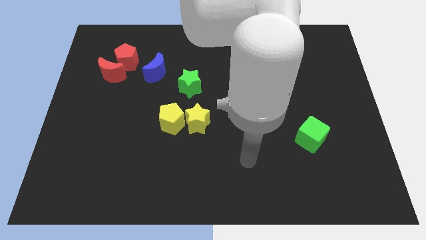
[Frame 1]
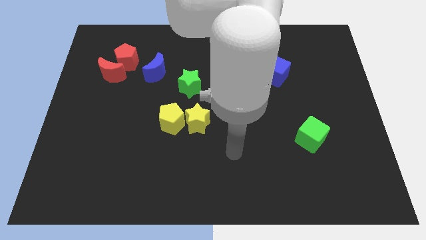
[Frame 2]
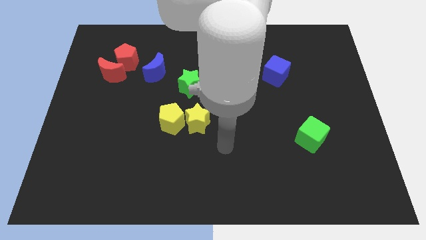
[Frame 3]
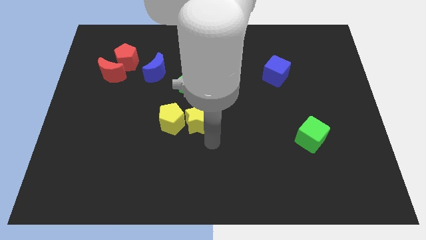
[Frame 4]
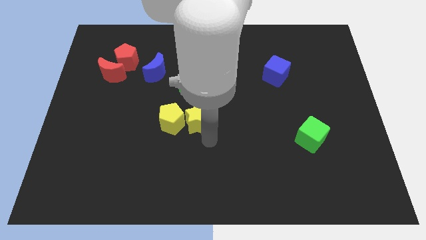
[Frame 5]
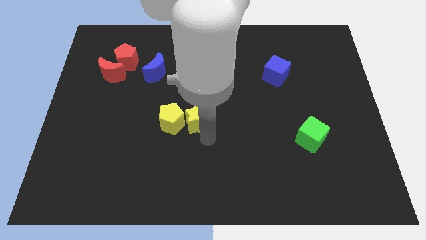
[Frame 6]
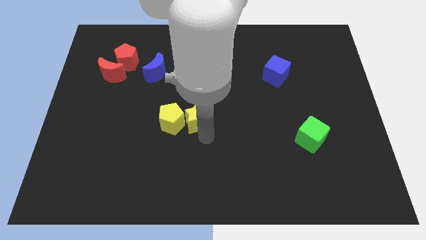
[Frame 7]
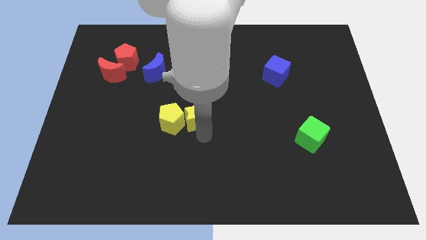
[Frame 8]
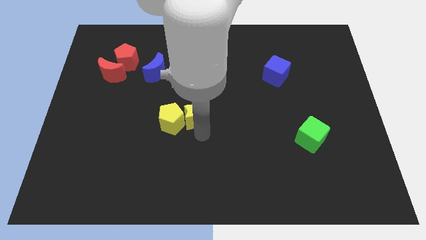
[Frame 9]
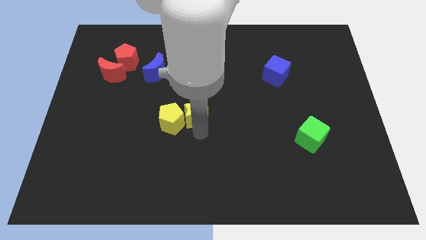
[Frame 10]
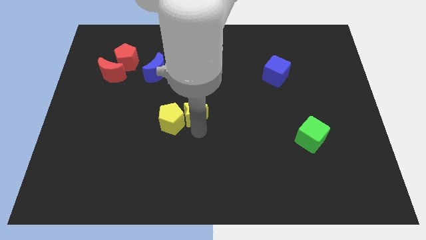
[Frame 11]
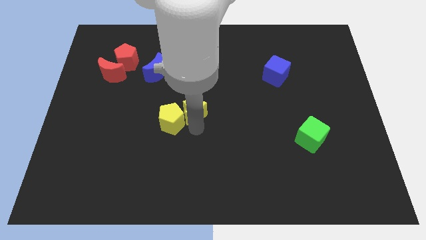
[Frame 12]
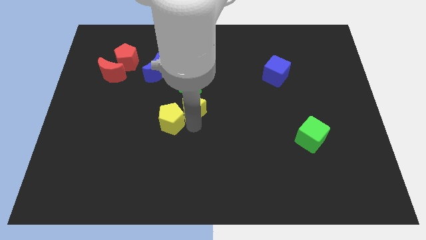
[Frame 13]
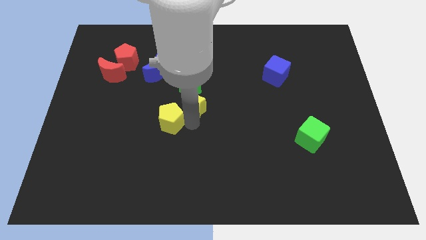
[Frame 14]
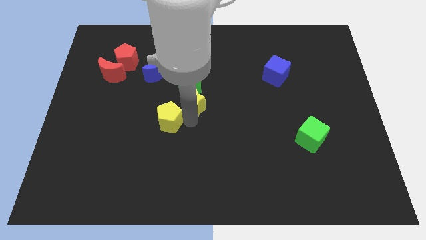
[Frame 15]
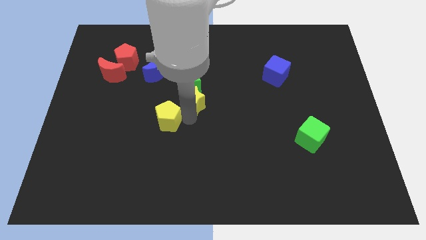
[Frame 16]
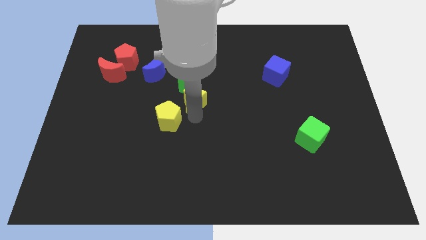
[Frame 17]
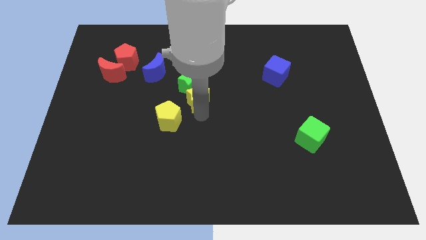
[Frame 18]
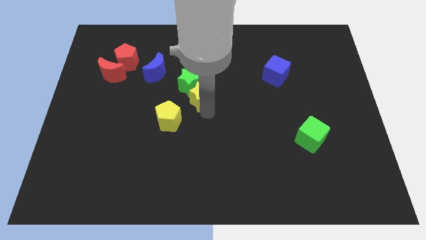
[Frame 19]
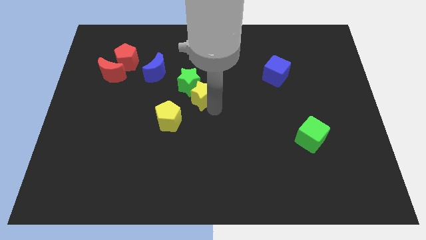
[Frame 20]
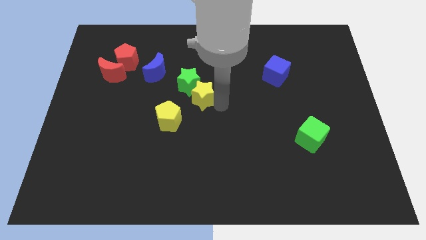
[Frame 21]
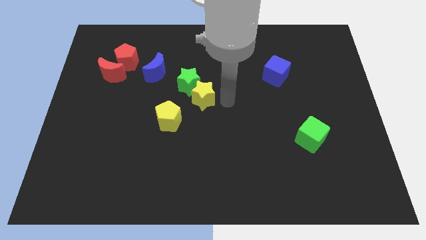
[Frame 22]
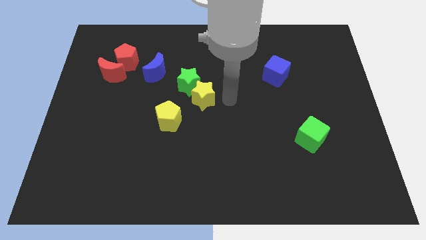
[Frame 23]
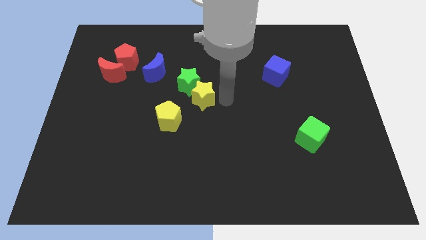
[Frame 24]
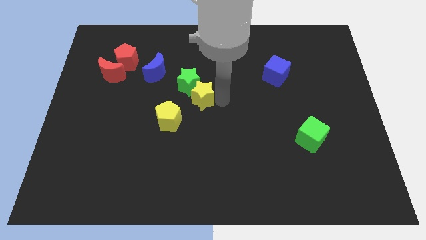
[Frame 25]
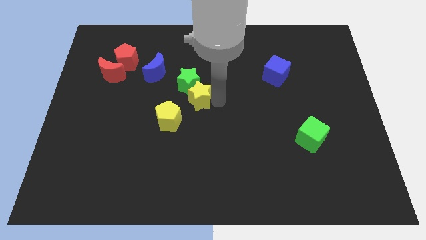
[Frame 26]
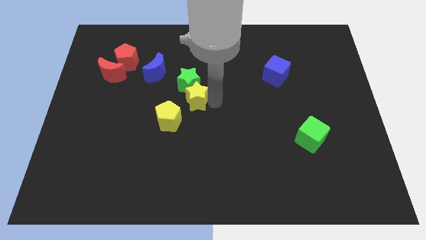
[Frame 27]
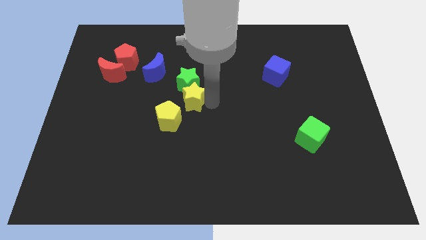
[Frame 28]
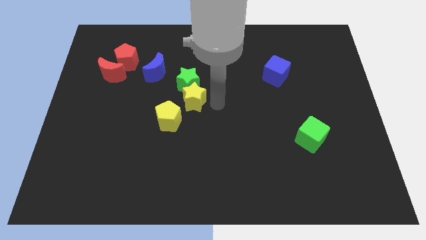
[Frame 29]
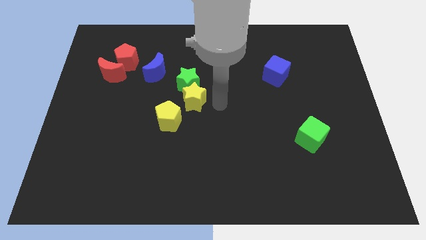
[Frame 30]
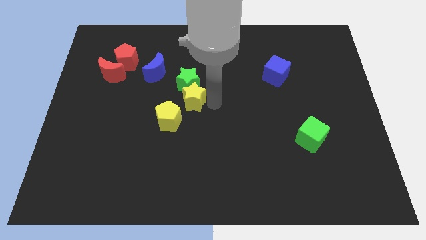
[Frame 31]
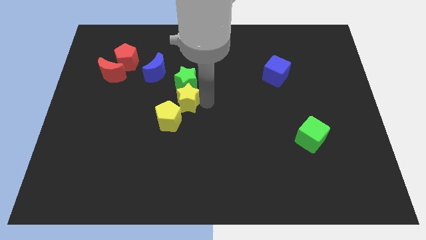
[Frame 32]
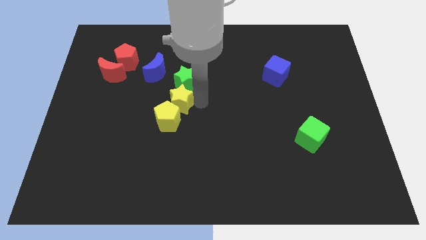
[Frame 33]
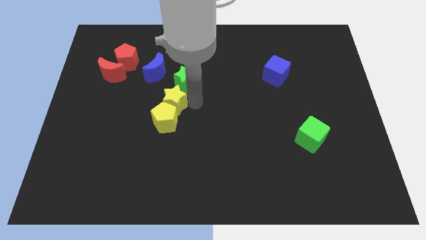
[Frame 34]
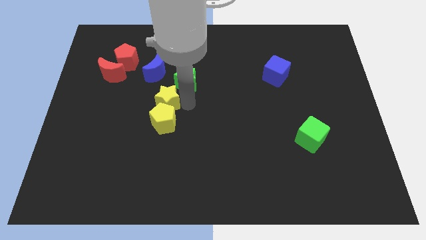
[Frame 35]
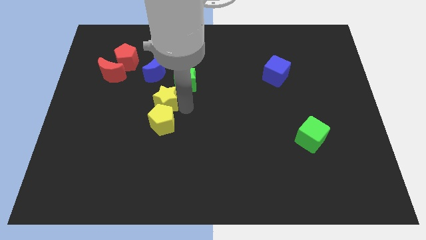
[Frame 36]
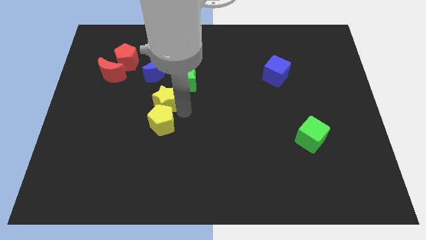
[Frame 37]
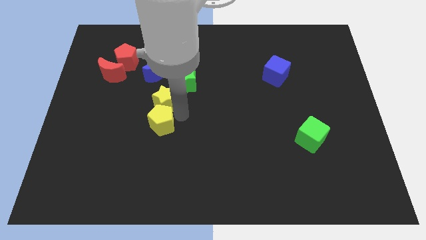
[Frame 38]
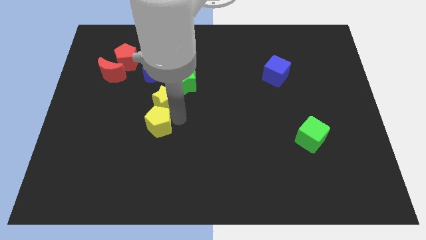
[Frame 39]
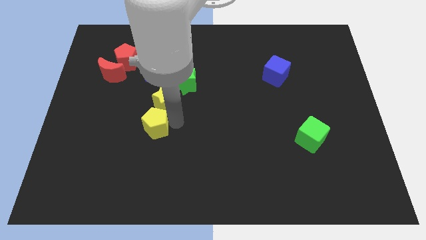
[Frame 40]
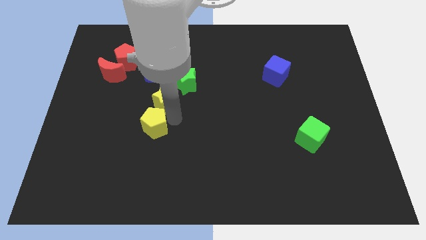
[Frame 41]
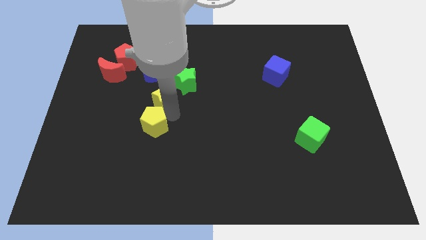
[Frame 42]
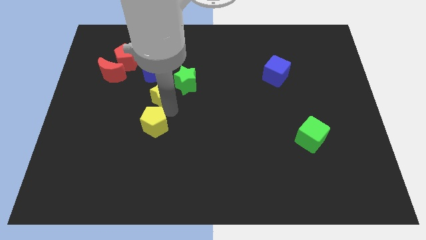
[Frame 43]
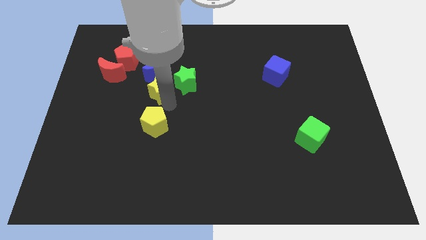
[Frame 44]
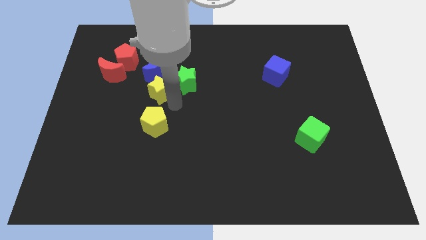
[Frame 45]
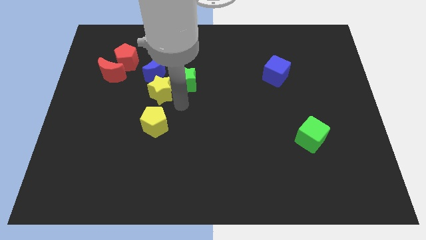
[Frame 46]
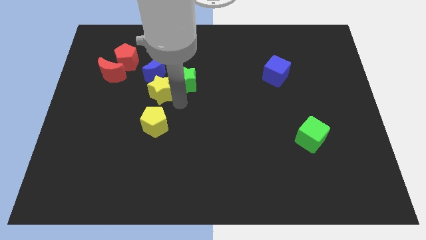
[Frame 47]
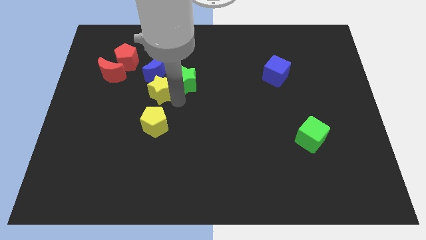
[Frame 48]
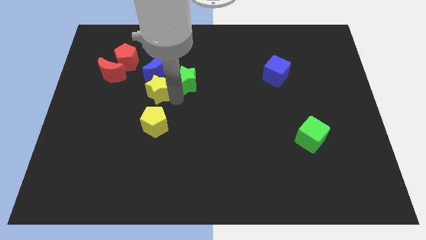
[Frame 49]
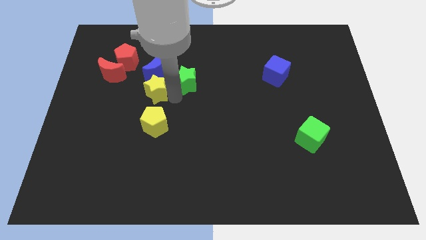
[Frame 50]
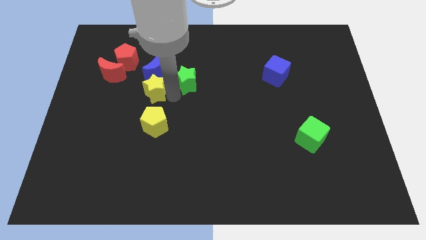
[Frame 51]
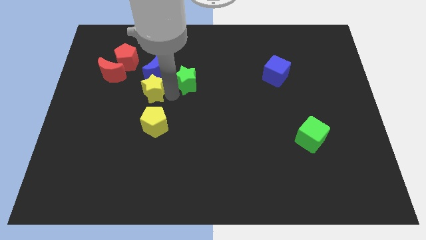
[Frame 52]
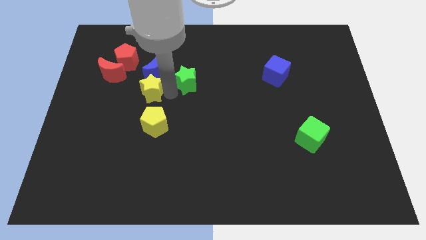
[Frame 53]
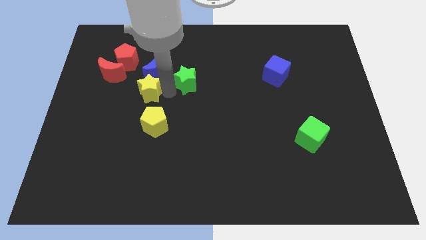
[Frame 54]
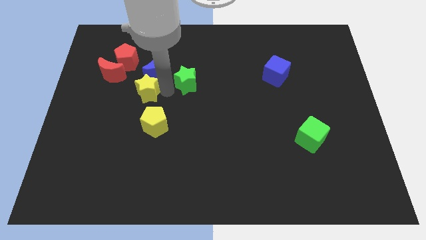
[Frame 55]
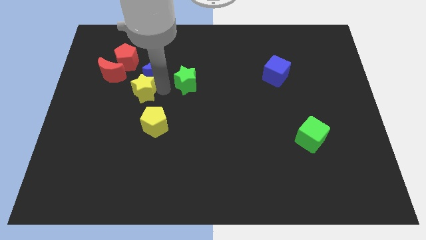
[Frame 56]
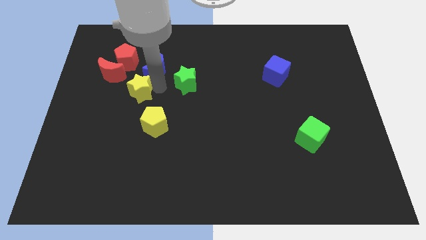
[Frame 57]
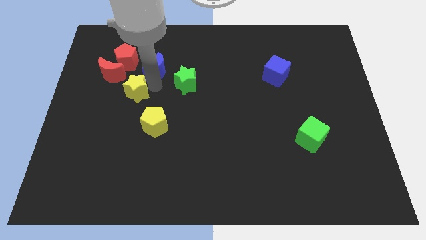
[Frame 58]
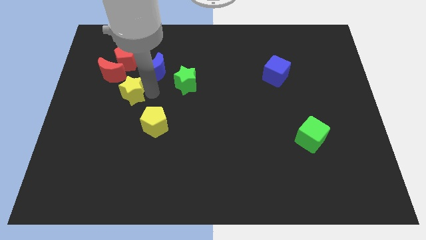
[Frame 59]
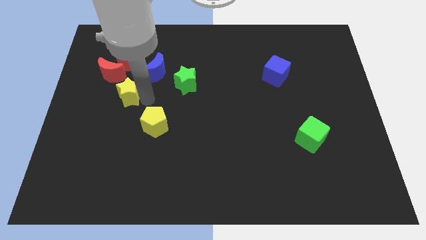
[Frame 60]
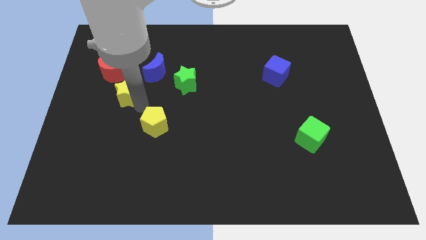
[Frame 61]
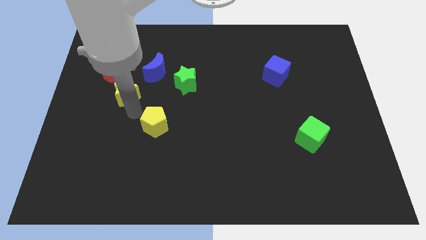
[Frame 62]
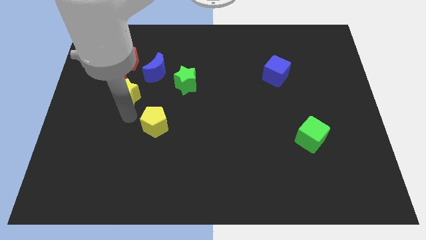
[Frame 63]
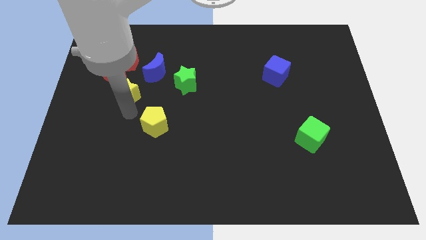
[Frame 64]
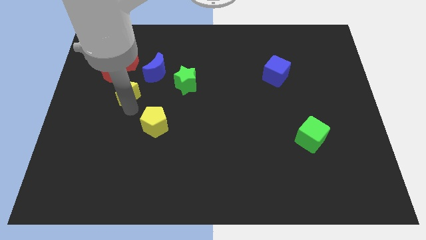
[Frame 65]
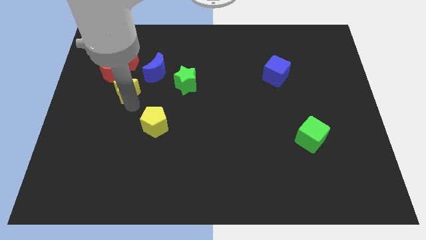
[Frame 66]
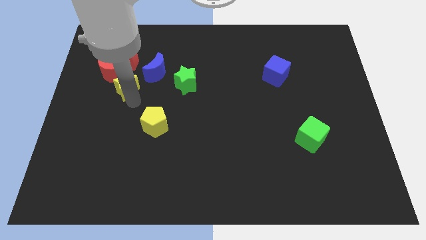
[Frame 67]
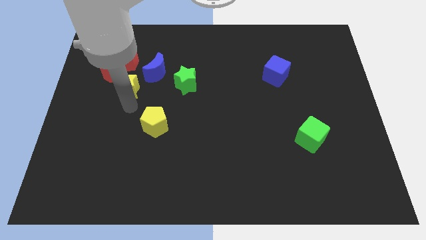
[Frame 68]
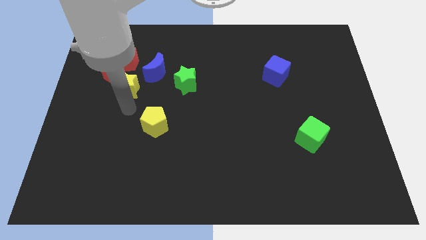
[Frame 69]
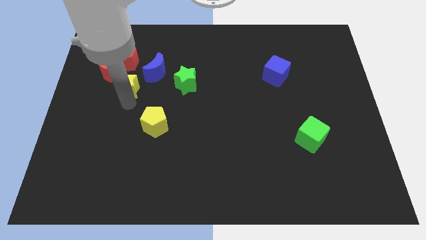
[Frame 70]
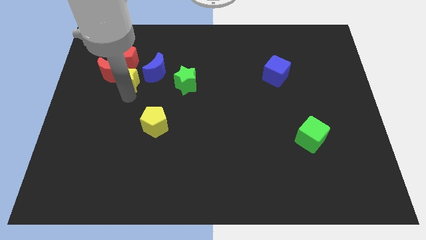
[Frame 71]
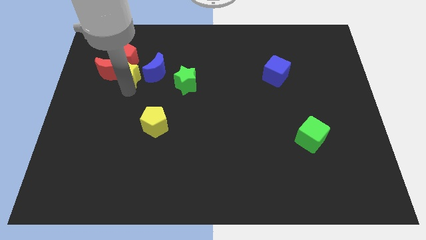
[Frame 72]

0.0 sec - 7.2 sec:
put the yellow star close to the red pentagon
